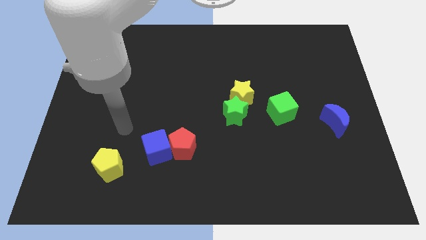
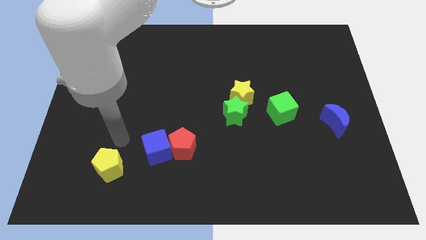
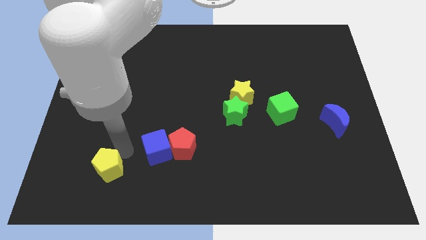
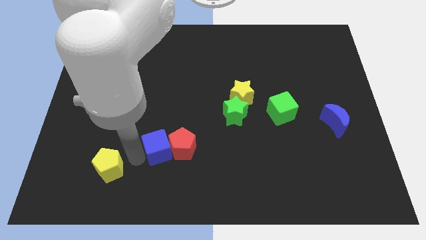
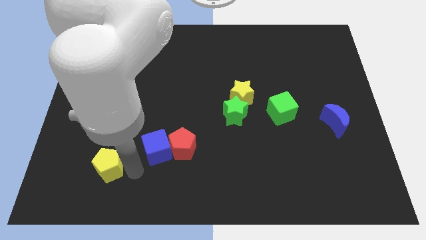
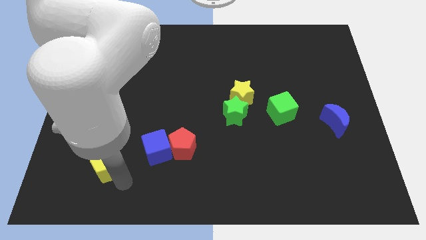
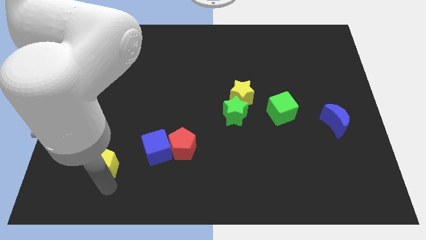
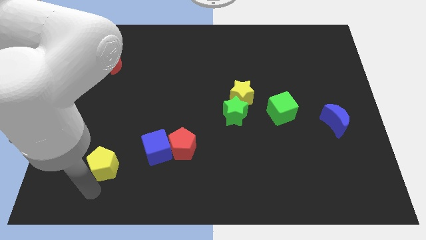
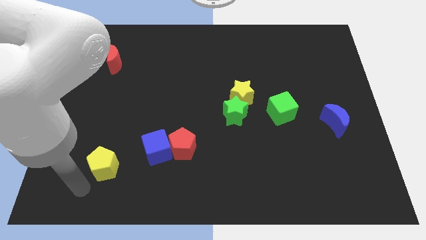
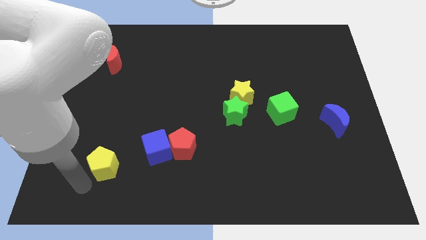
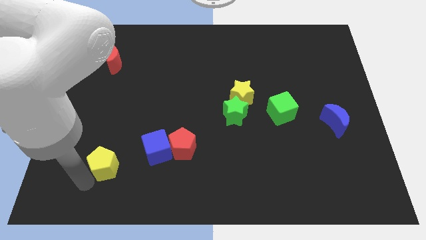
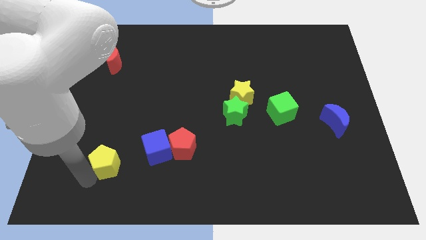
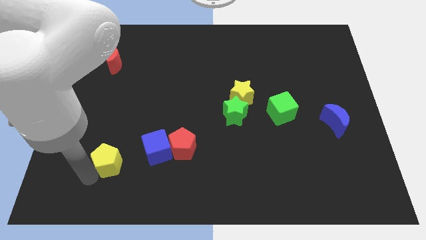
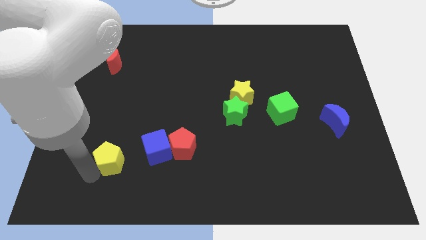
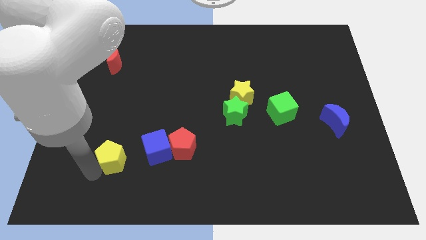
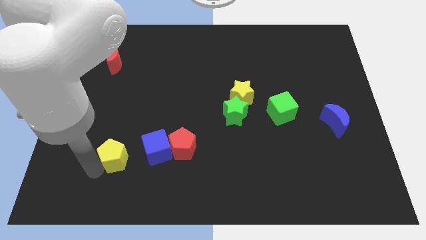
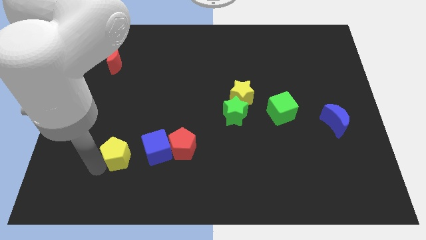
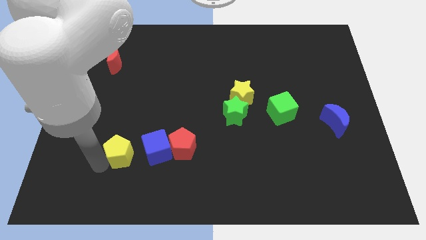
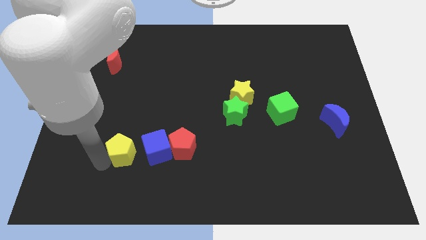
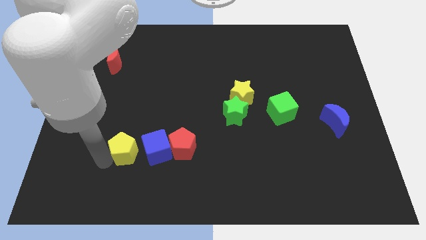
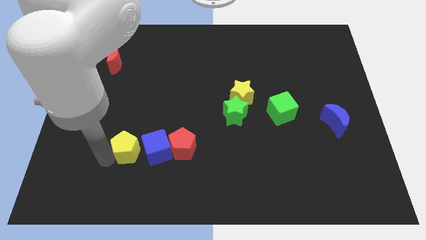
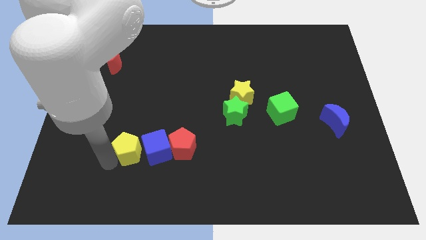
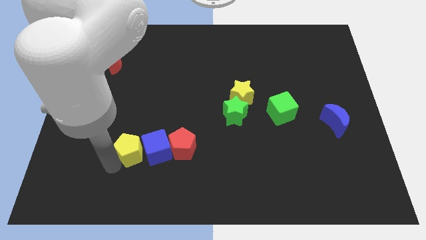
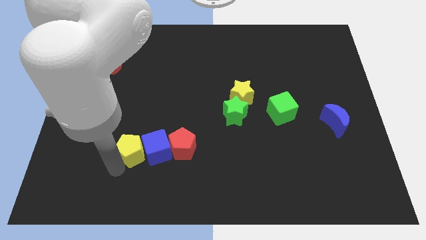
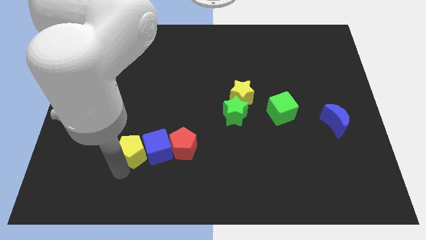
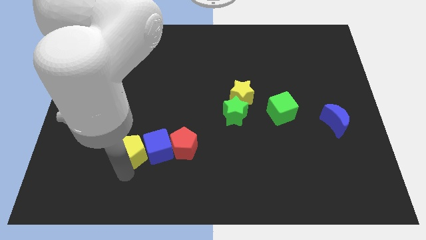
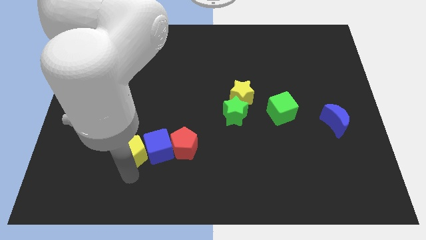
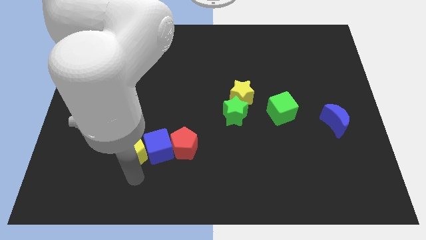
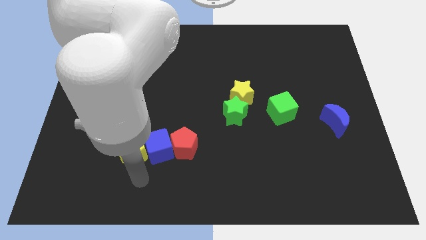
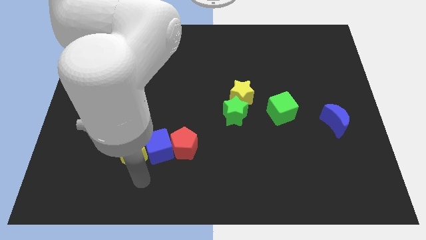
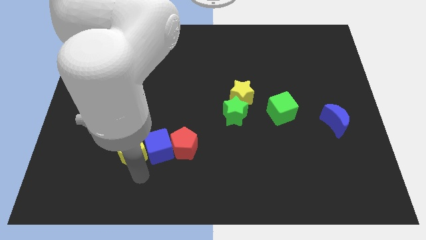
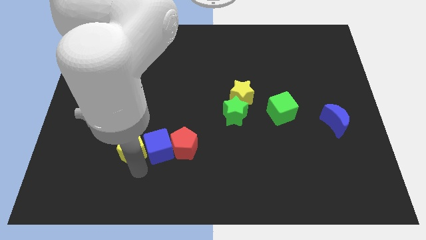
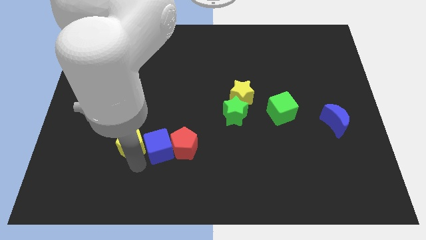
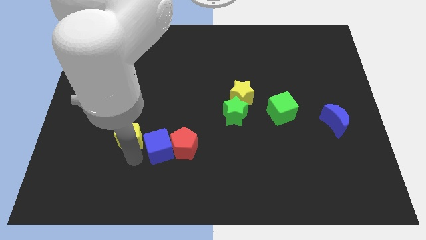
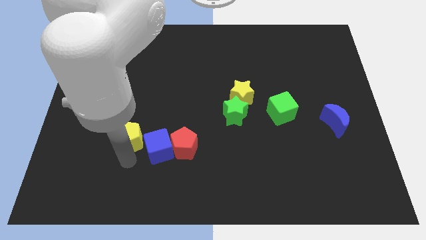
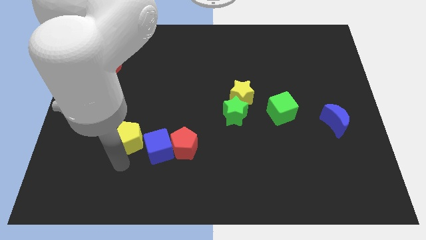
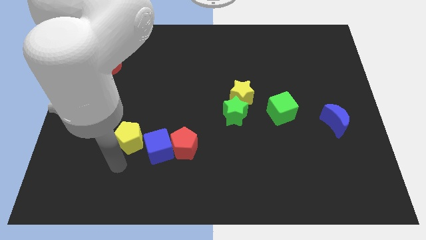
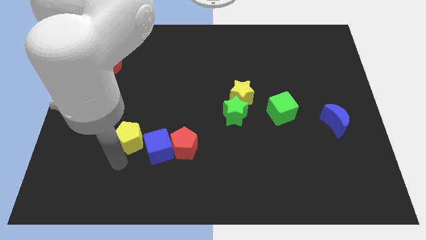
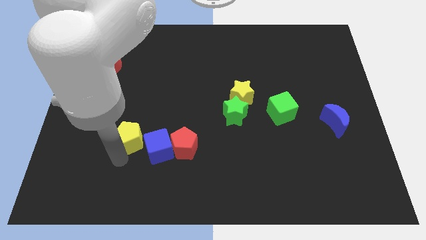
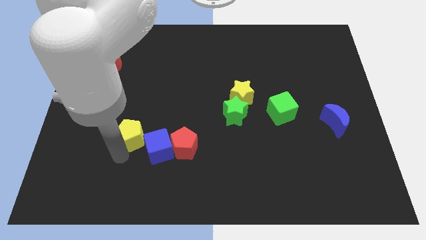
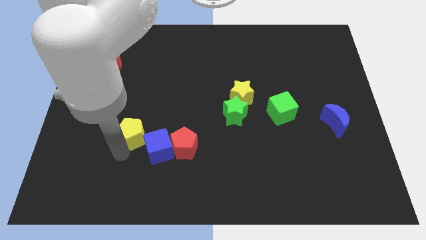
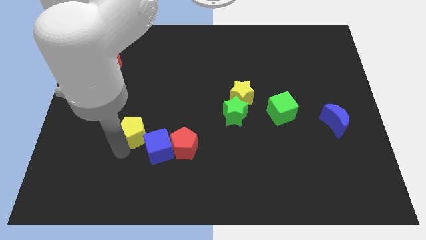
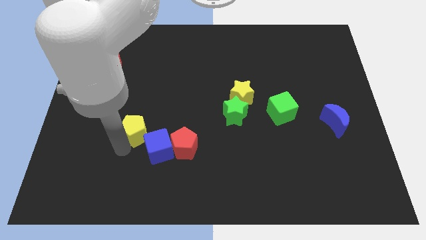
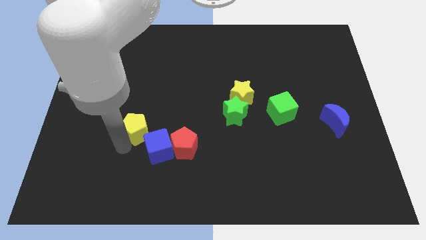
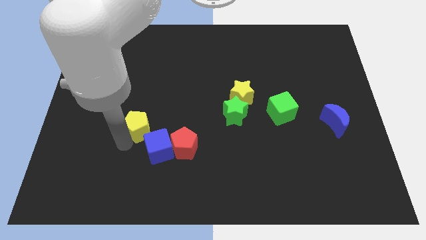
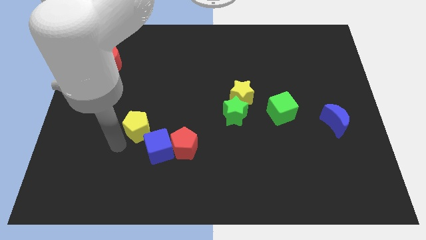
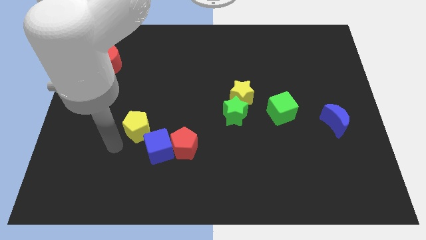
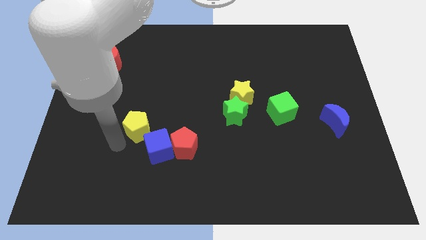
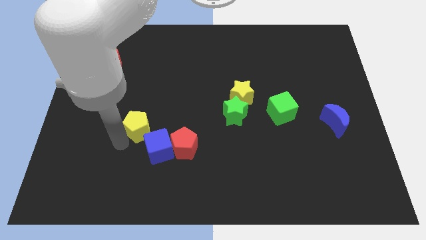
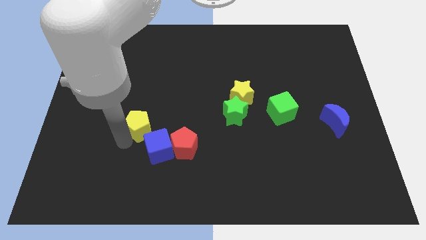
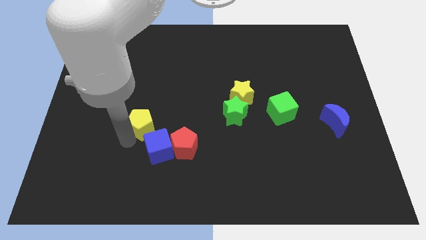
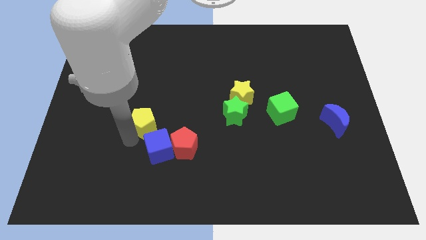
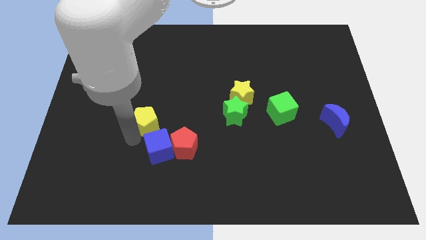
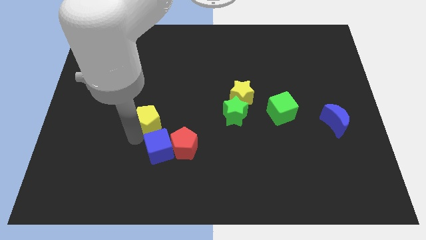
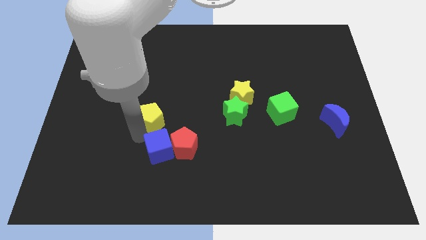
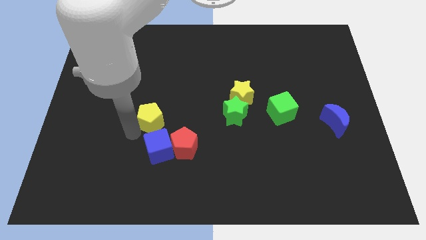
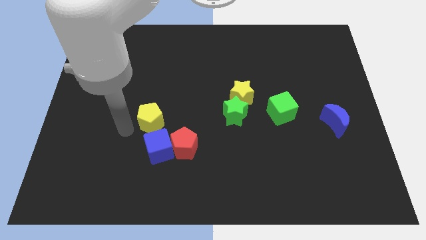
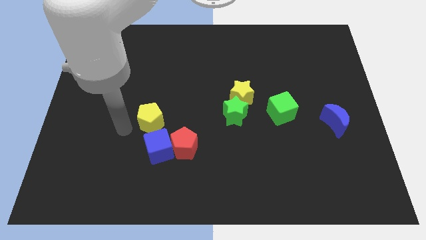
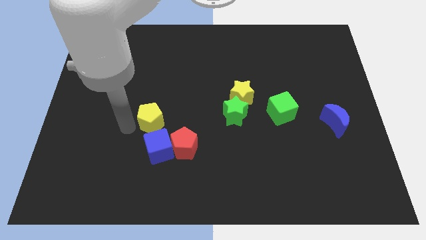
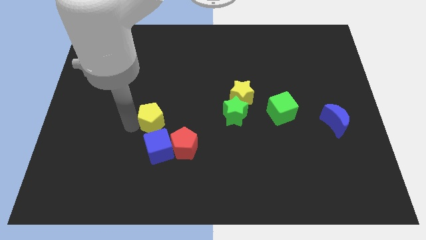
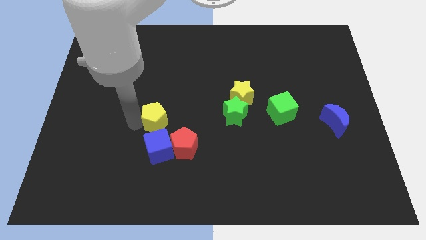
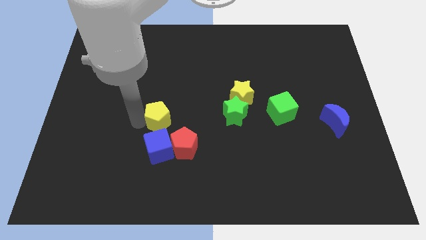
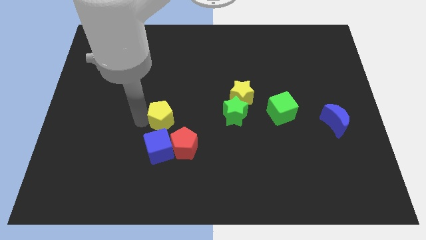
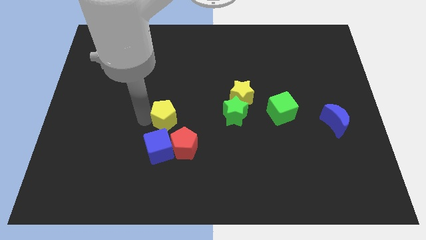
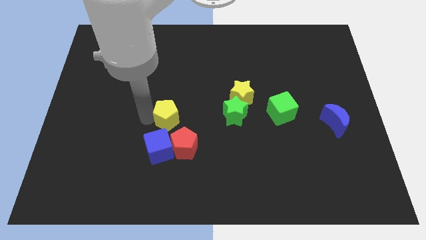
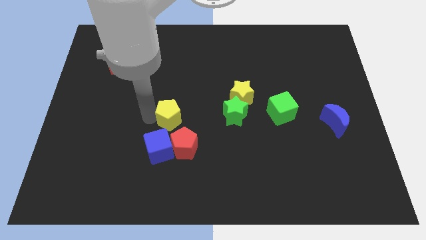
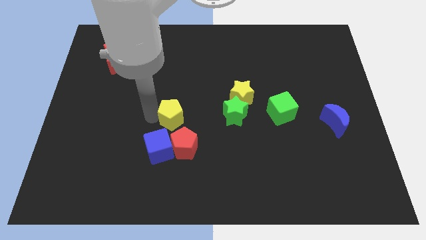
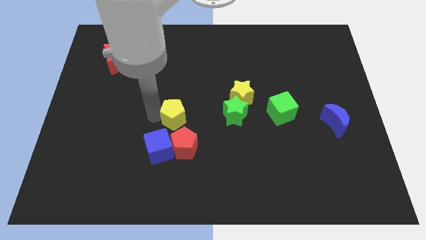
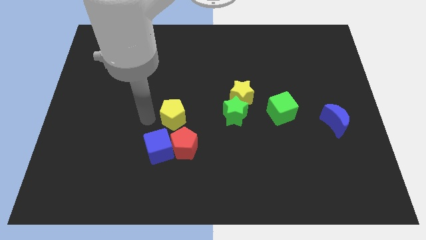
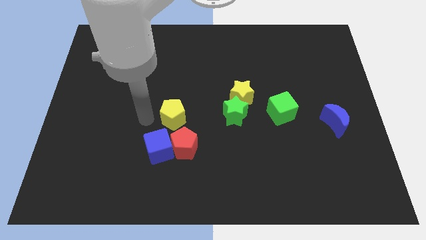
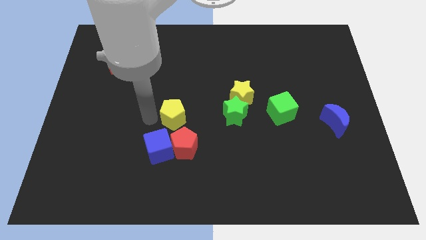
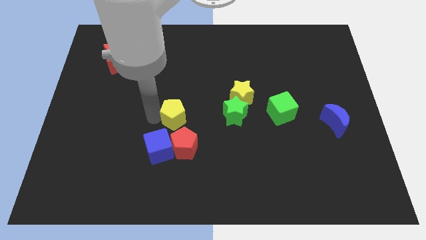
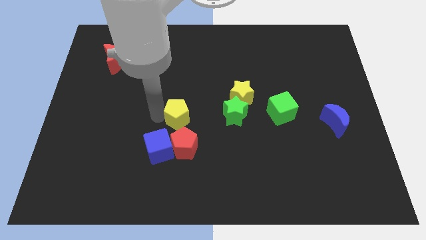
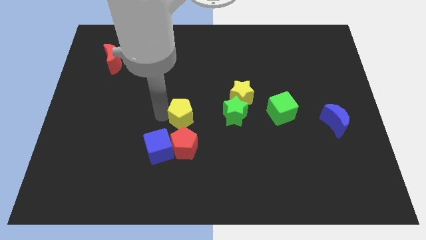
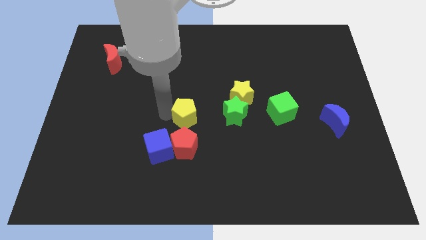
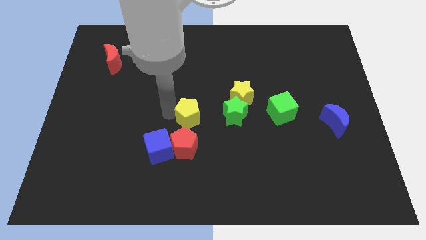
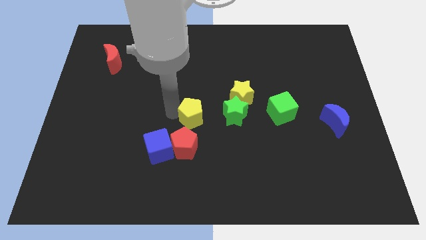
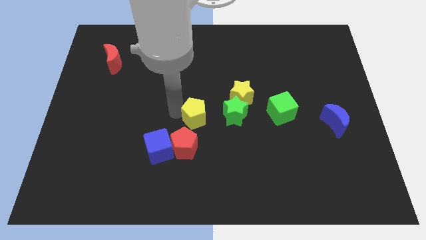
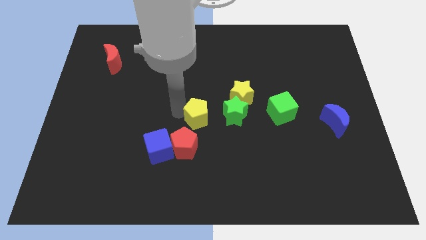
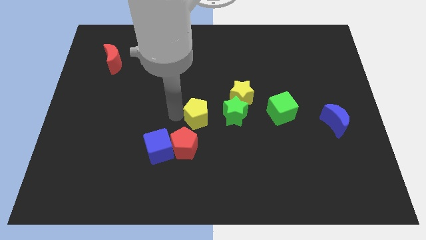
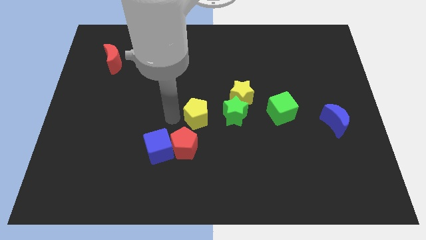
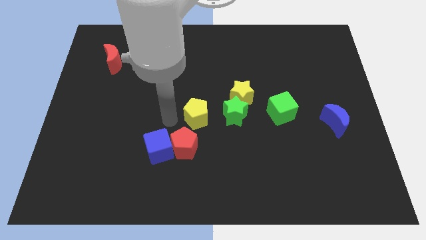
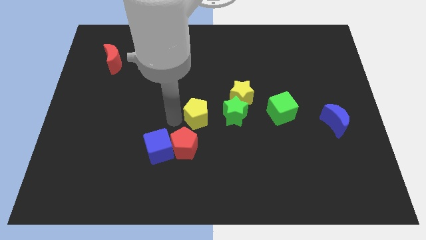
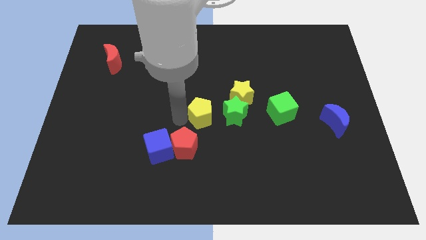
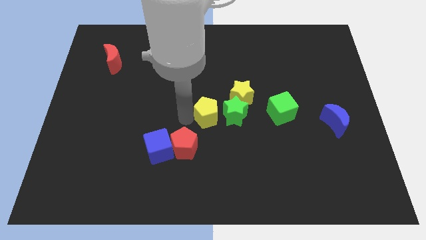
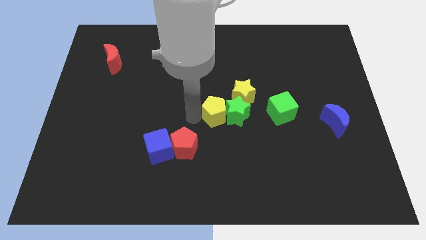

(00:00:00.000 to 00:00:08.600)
move the yellow pentagon to the green star
